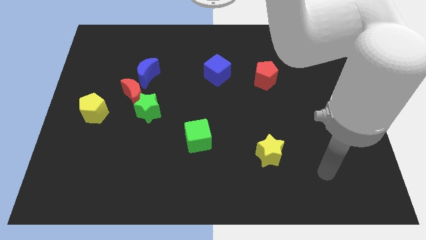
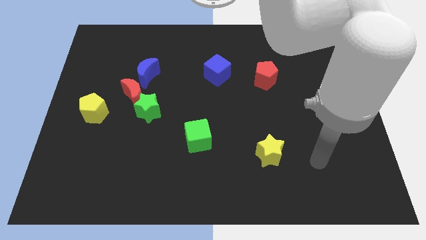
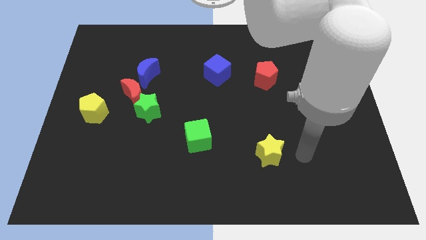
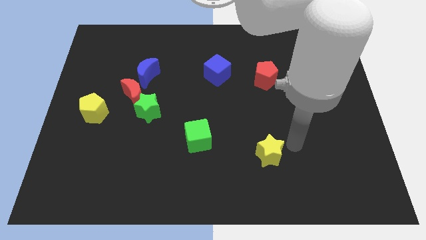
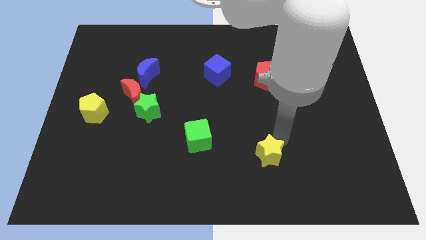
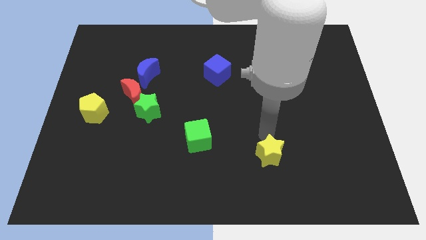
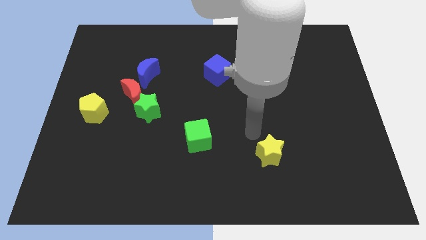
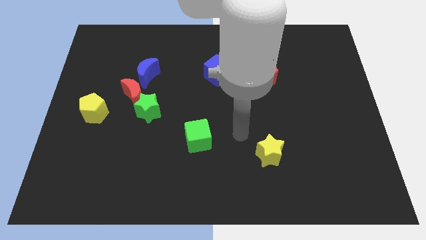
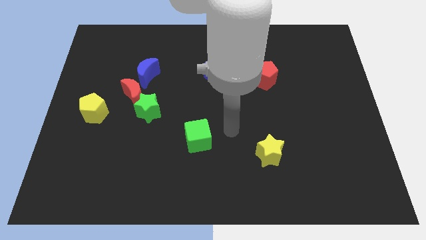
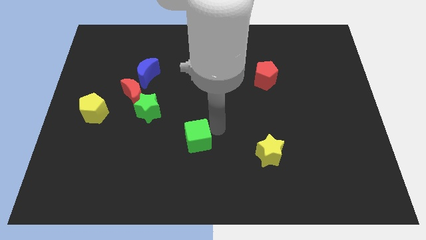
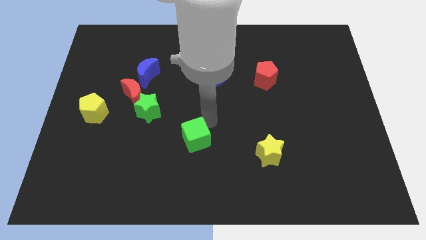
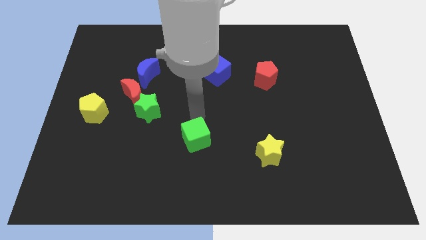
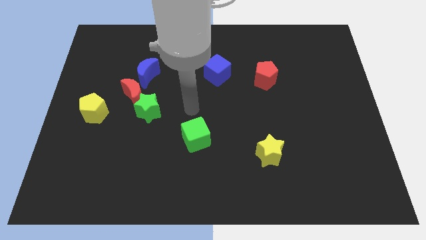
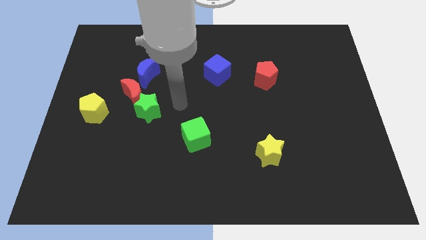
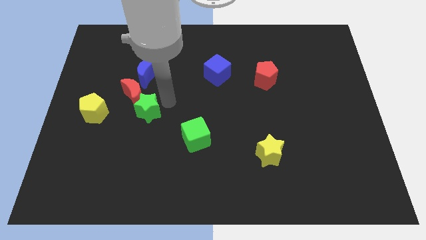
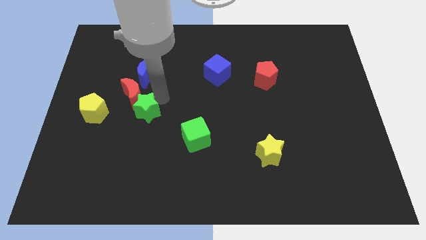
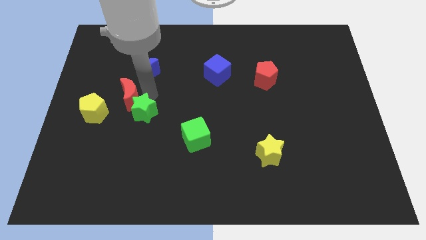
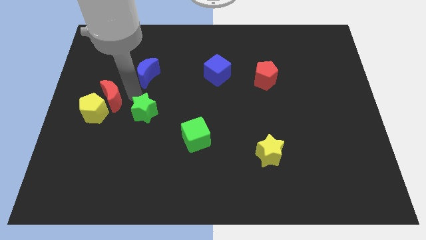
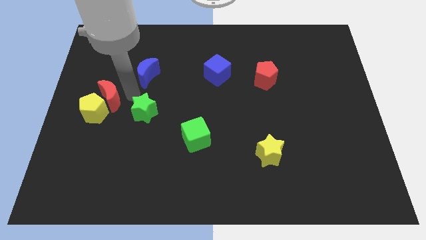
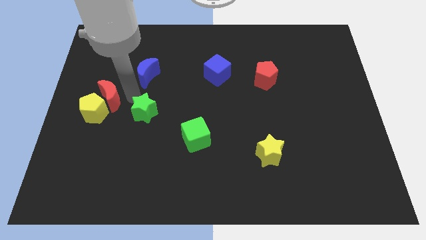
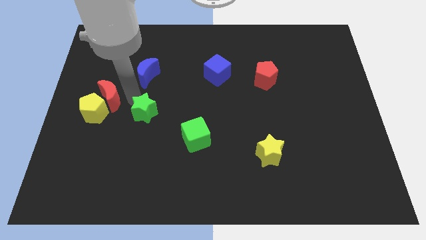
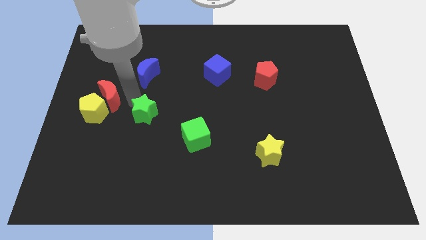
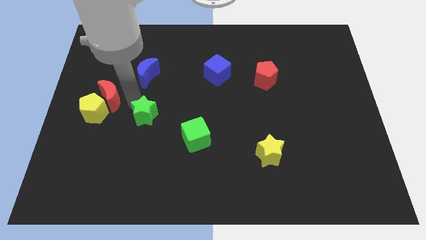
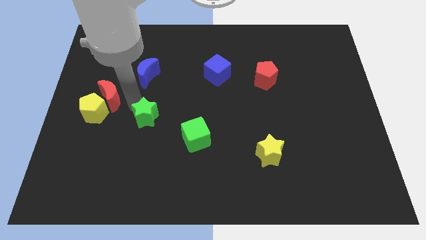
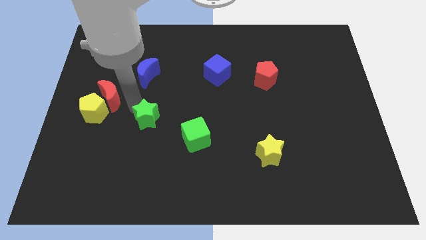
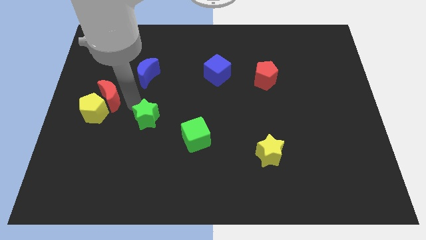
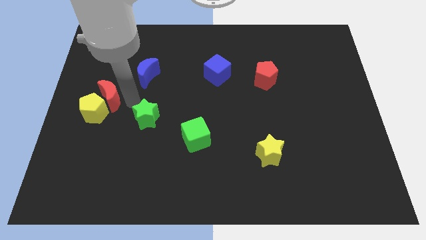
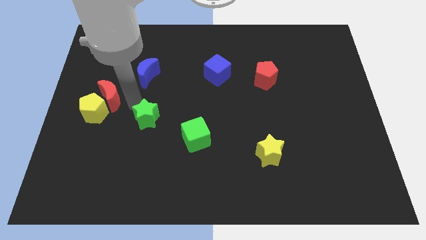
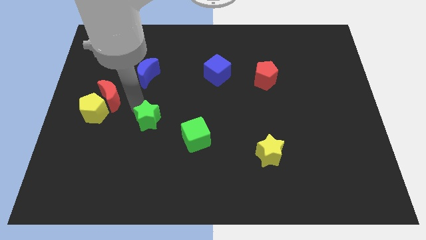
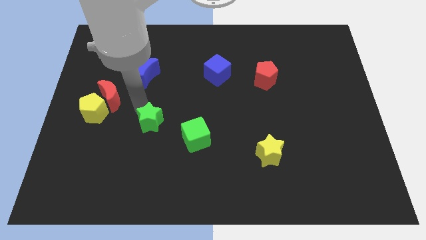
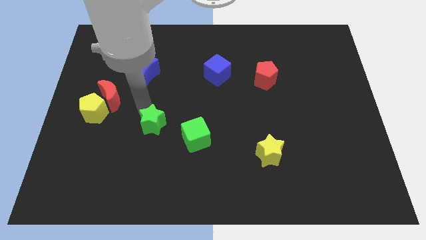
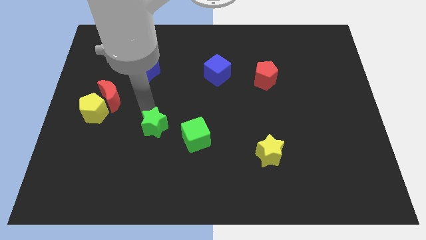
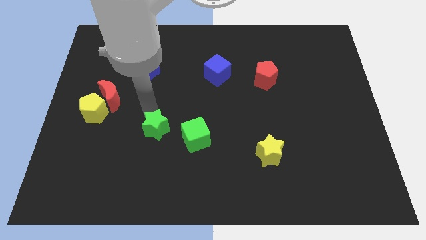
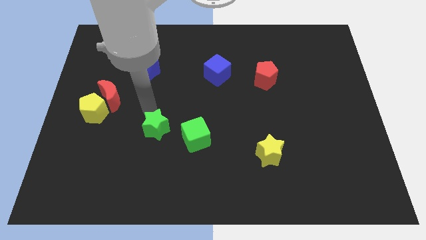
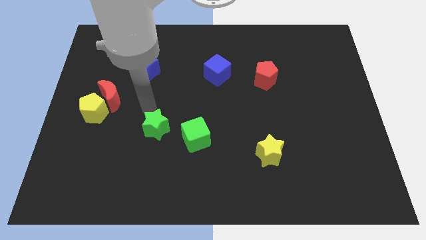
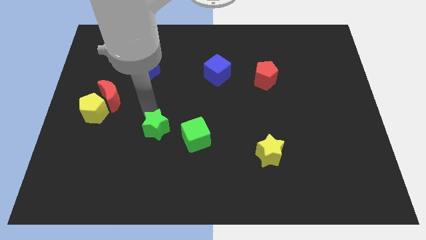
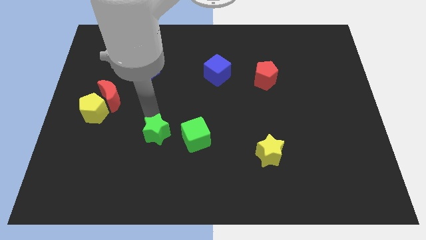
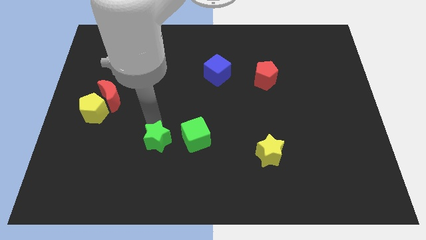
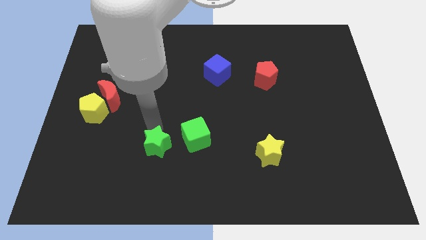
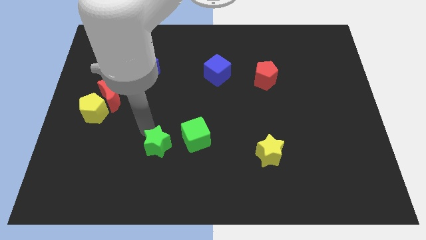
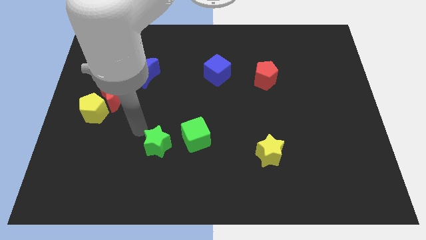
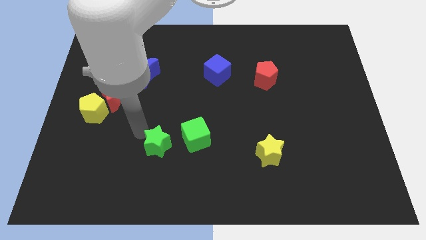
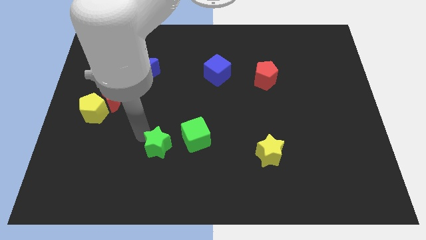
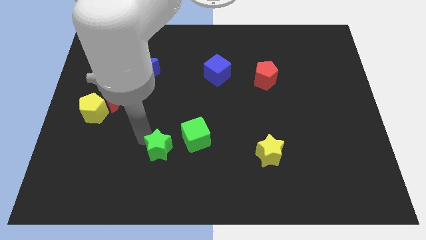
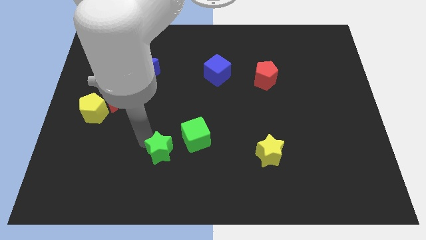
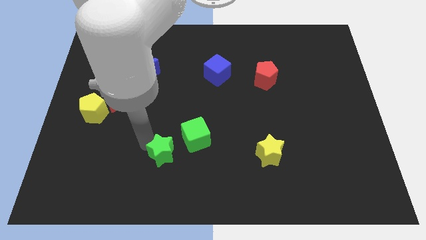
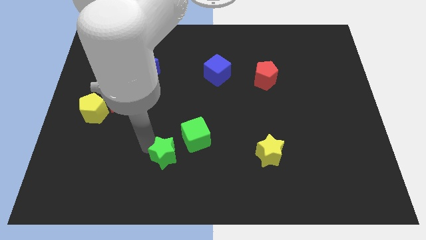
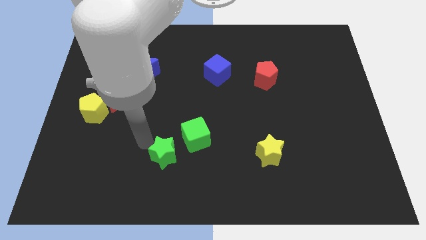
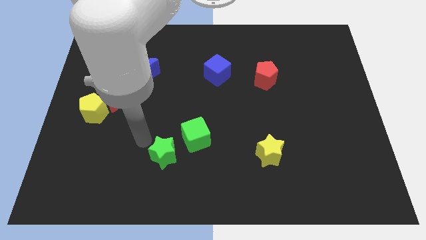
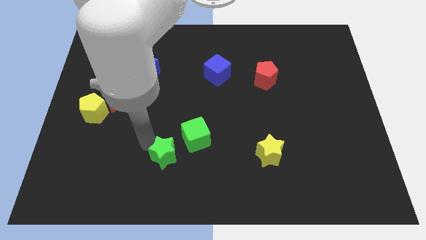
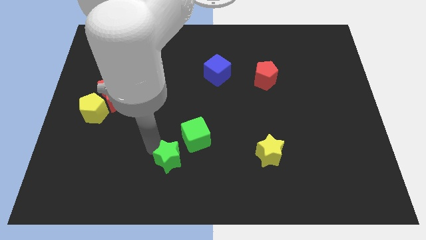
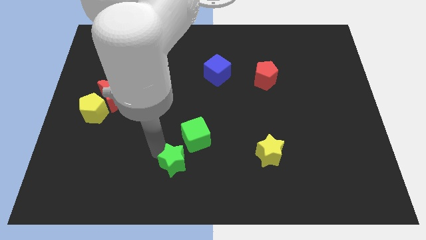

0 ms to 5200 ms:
put the green star to the bottom side of the green cube

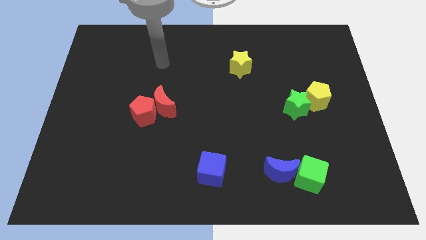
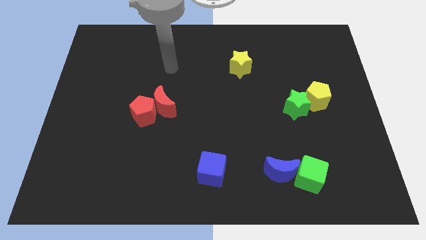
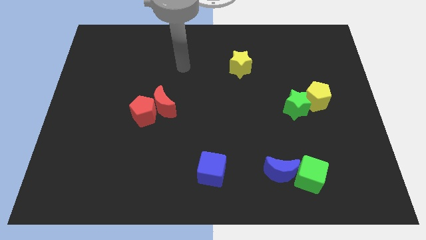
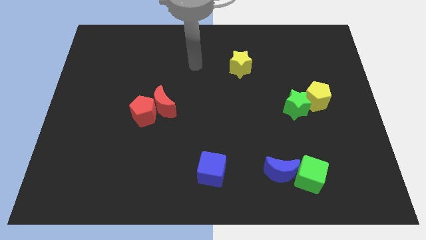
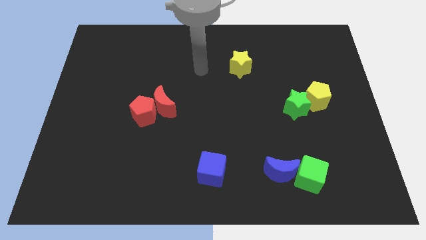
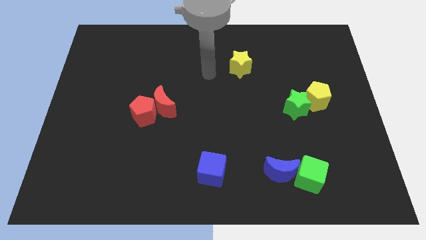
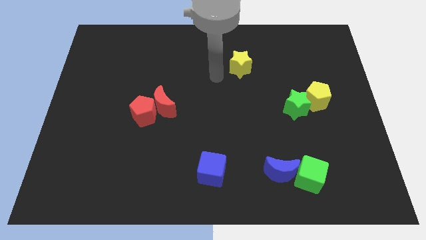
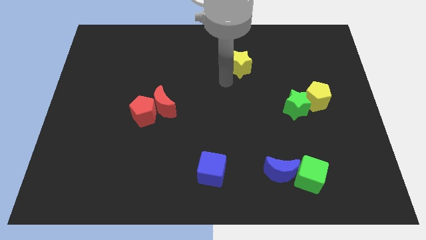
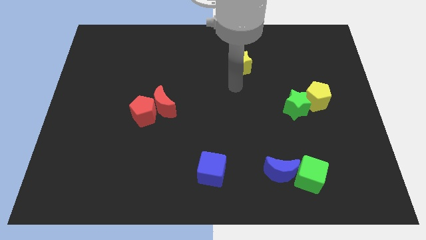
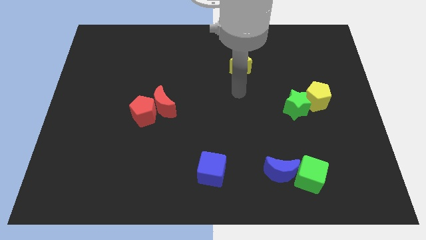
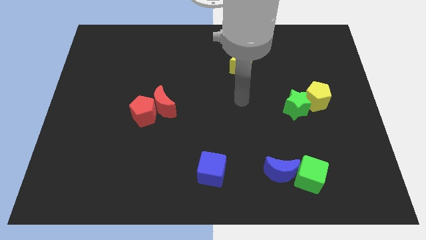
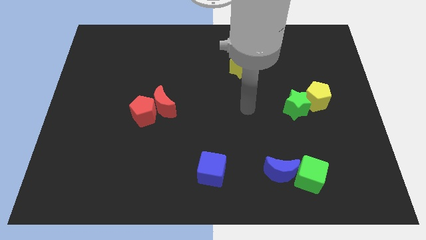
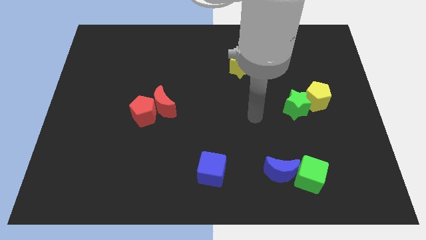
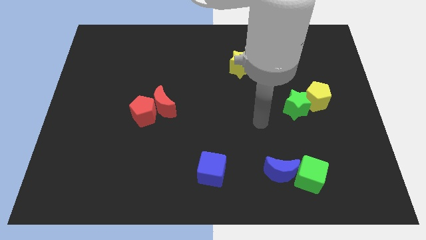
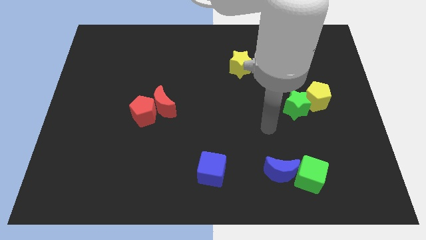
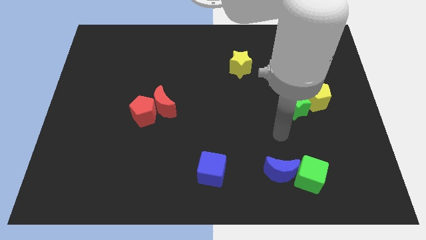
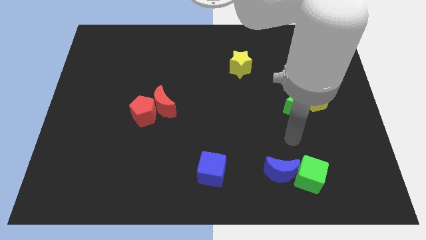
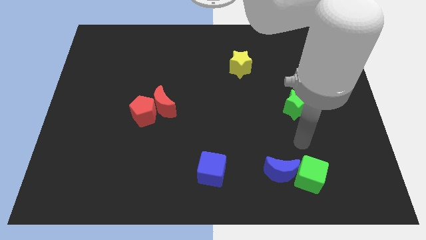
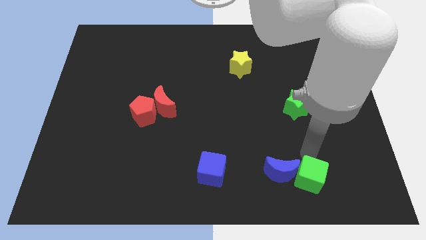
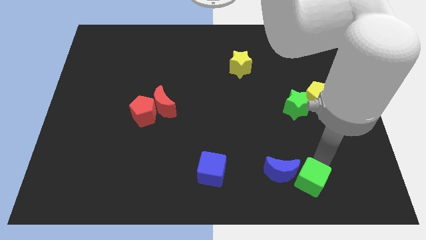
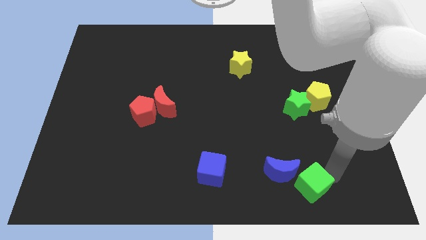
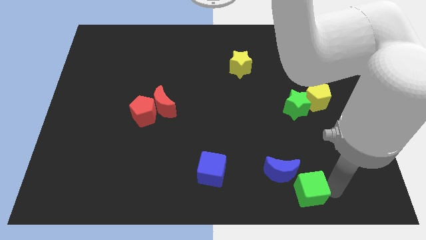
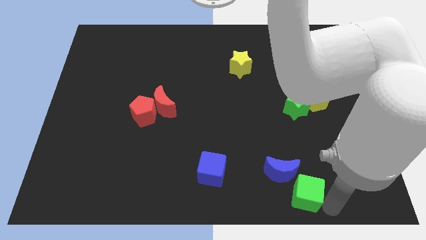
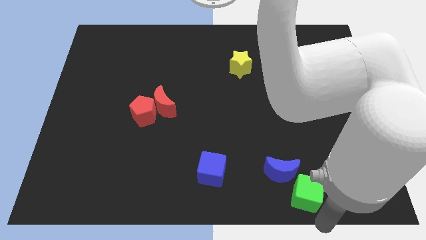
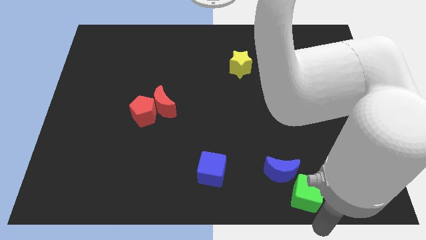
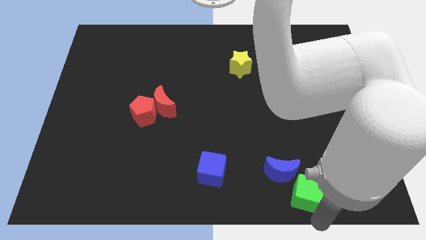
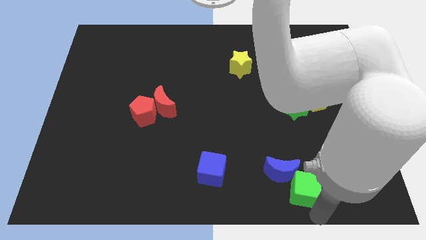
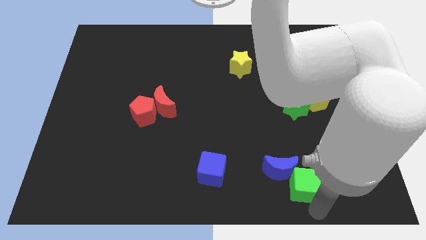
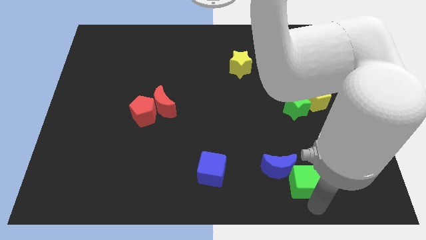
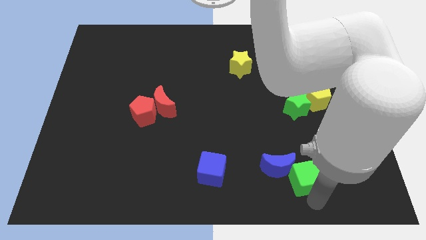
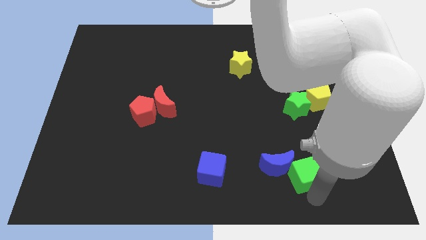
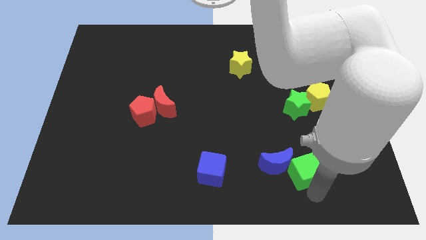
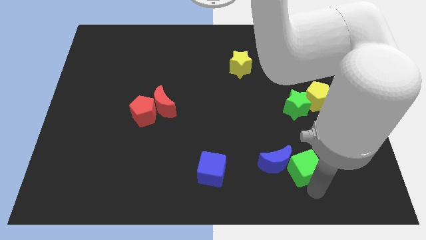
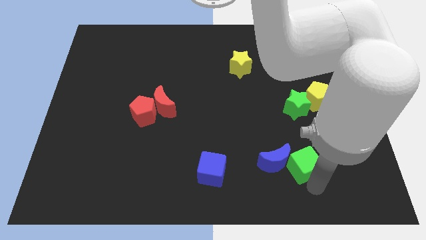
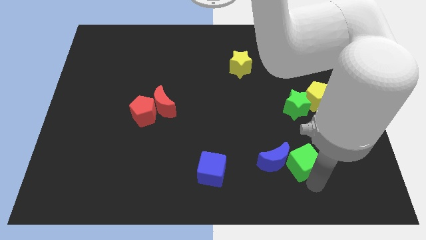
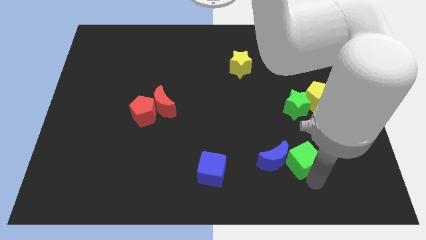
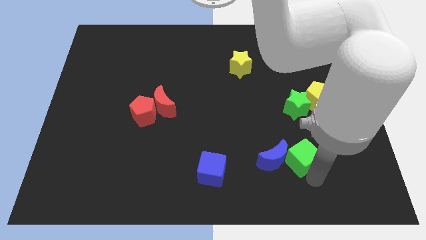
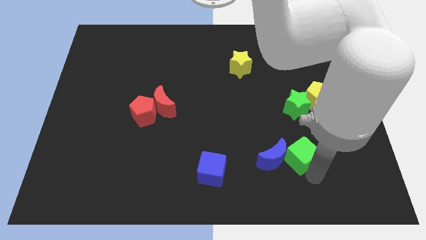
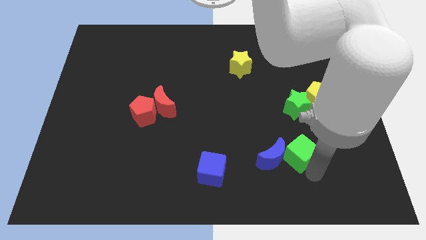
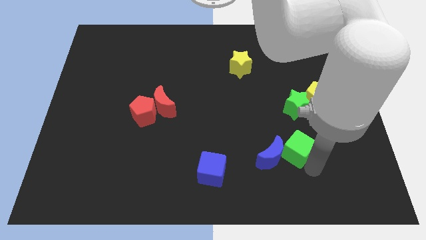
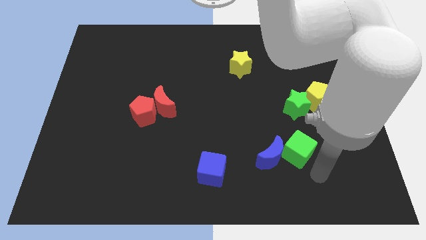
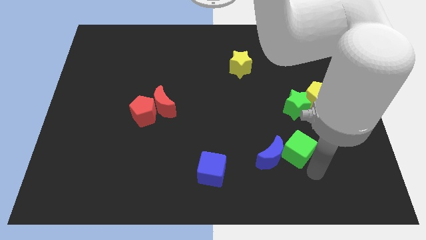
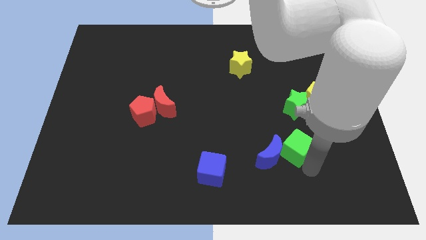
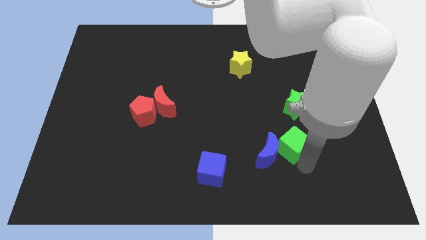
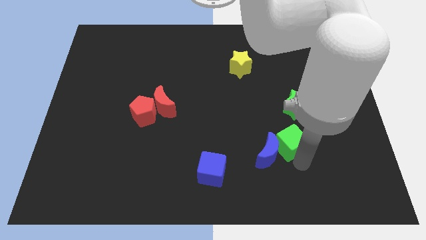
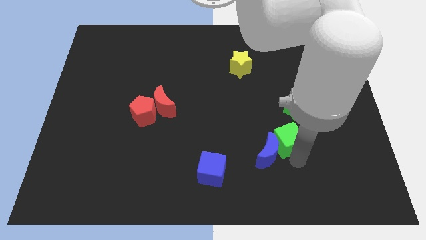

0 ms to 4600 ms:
slide the green cube above the blue moon
